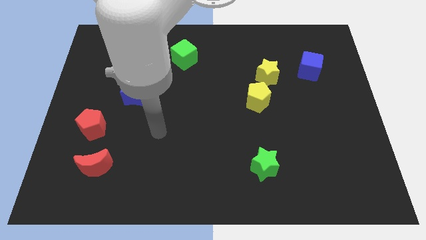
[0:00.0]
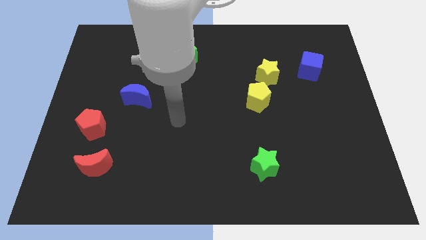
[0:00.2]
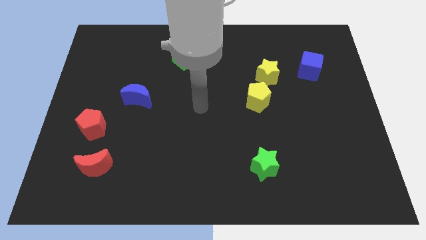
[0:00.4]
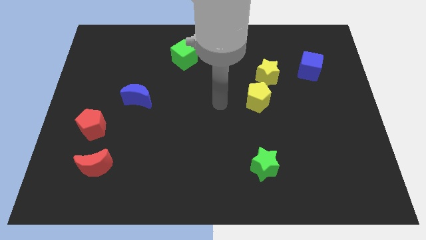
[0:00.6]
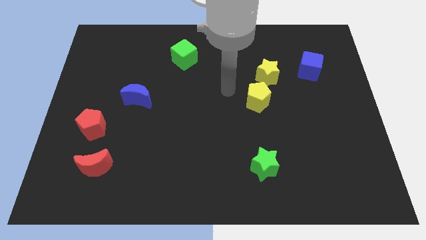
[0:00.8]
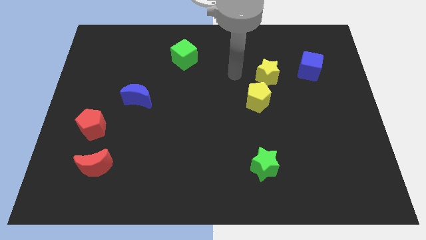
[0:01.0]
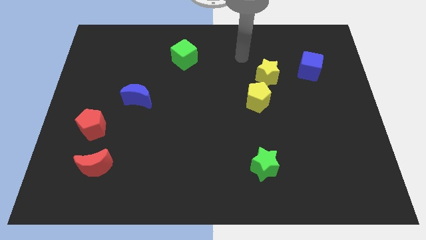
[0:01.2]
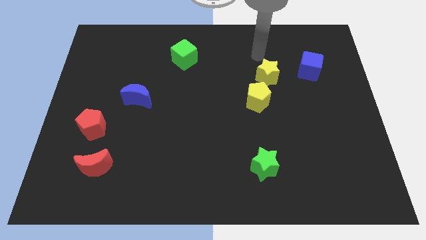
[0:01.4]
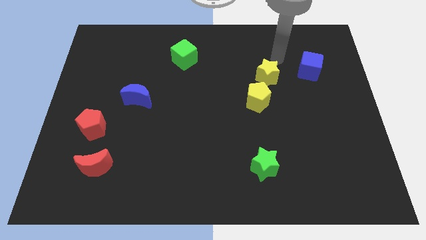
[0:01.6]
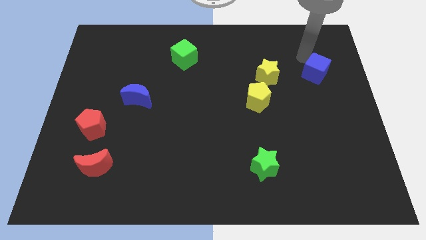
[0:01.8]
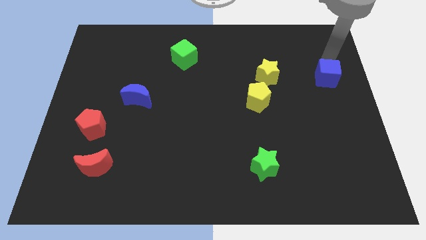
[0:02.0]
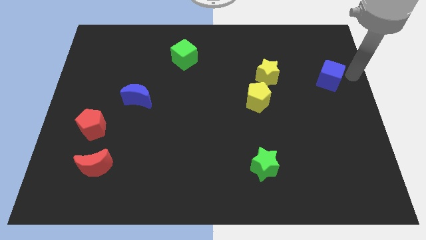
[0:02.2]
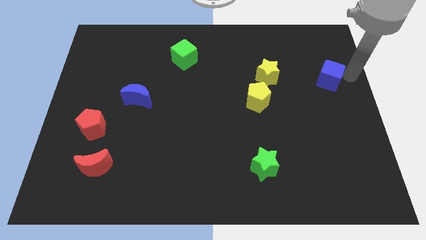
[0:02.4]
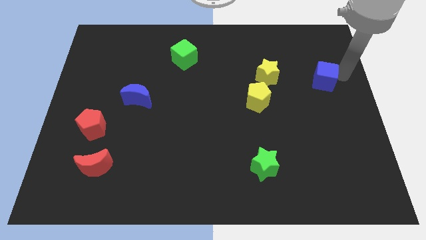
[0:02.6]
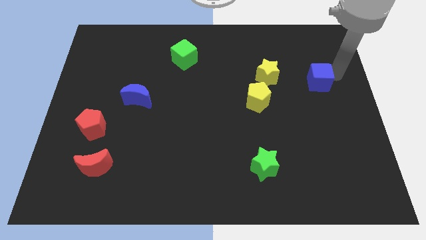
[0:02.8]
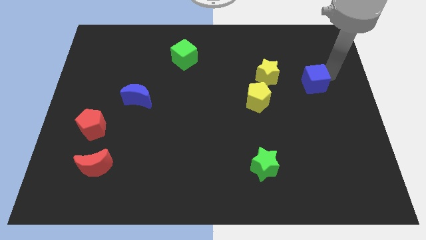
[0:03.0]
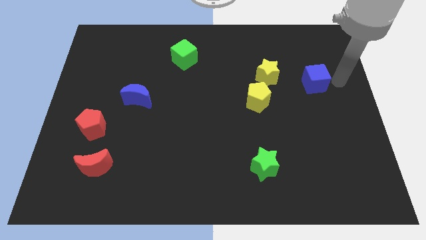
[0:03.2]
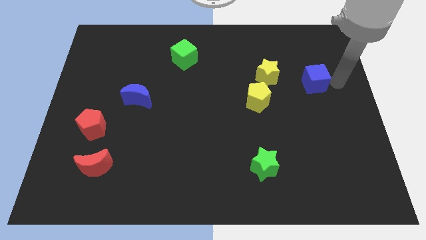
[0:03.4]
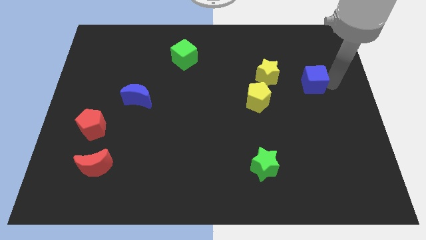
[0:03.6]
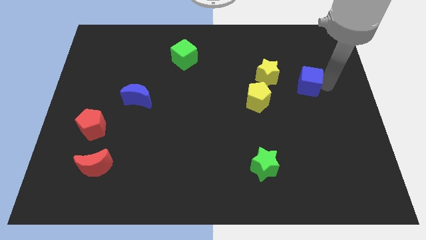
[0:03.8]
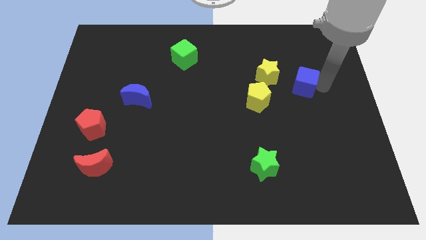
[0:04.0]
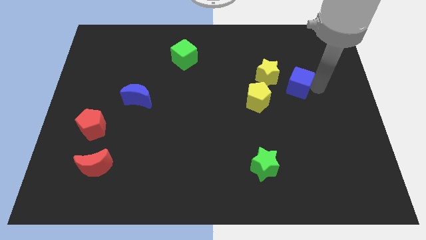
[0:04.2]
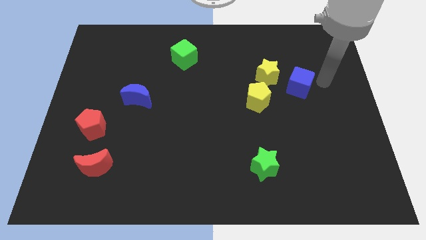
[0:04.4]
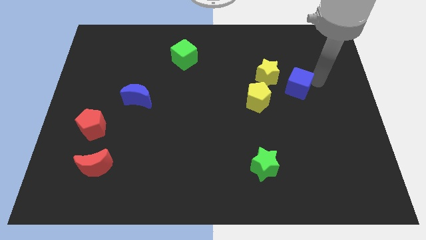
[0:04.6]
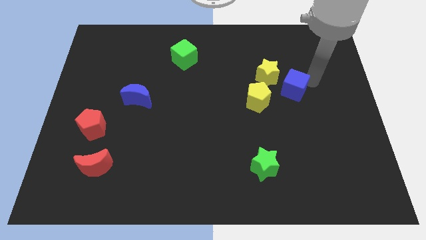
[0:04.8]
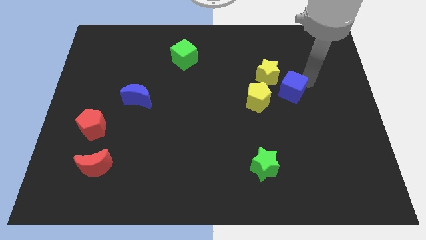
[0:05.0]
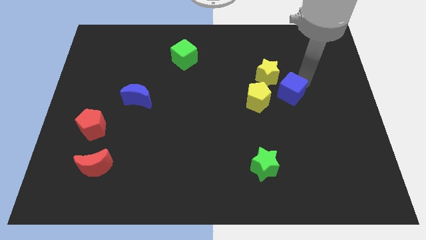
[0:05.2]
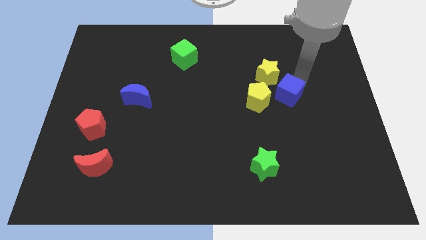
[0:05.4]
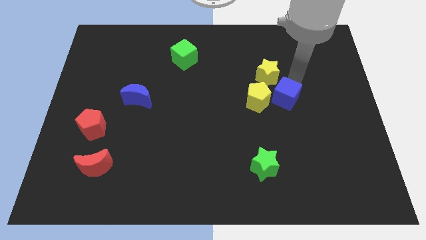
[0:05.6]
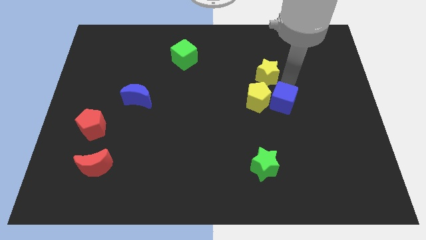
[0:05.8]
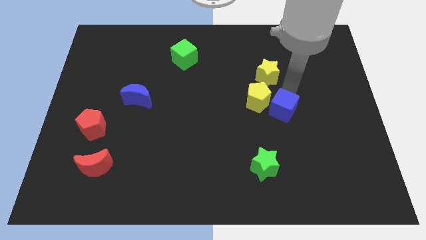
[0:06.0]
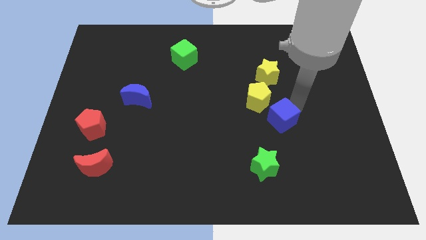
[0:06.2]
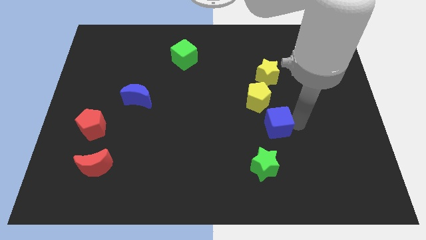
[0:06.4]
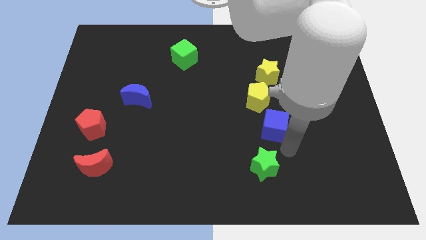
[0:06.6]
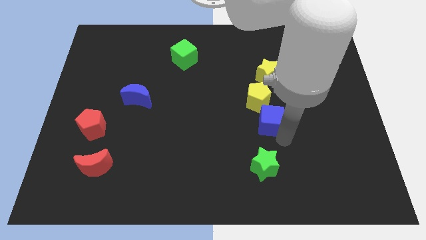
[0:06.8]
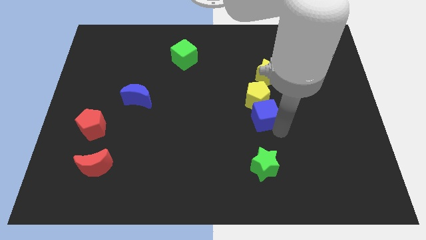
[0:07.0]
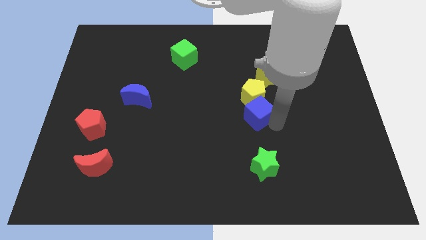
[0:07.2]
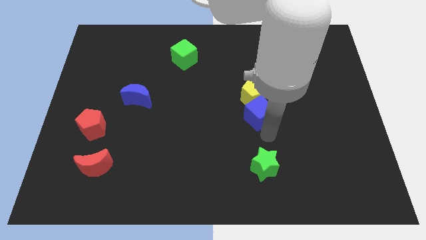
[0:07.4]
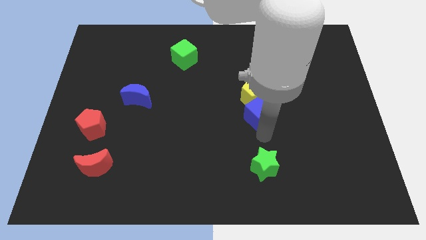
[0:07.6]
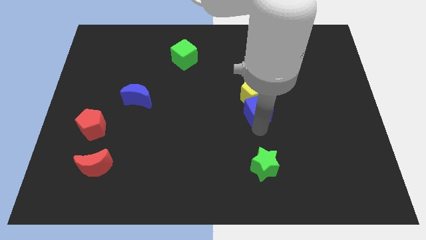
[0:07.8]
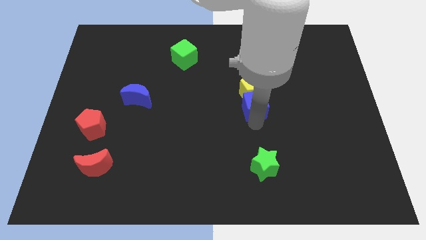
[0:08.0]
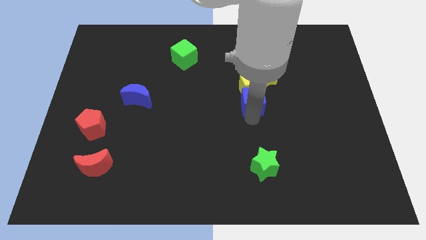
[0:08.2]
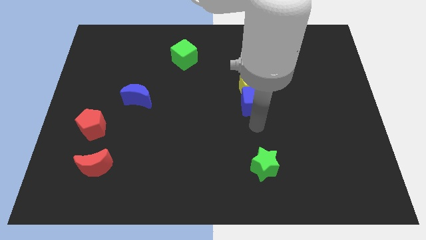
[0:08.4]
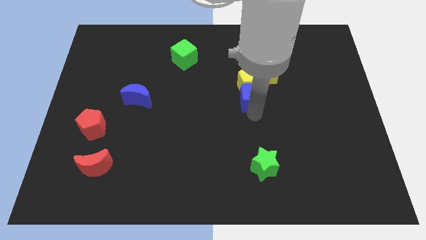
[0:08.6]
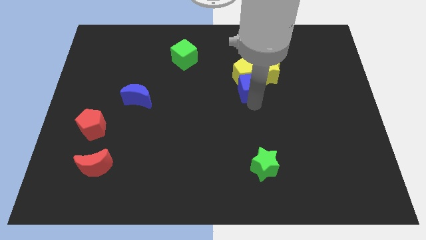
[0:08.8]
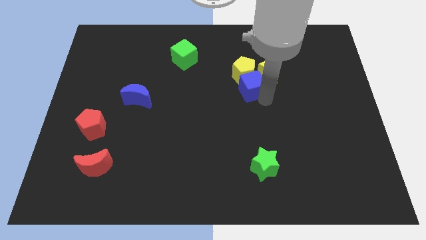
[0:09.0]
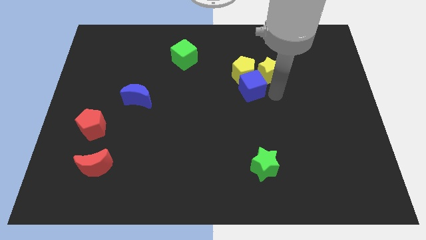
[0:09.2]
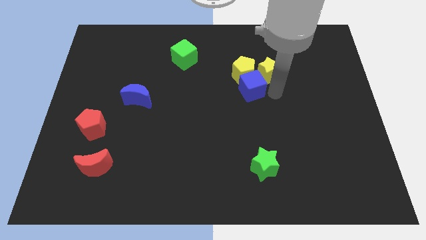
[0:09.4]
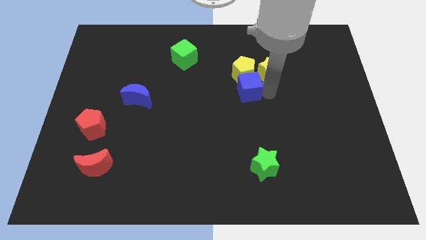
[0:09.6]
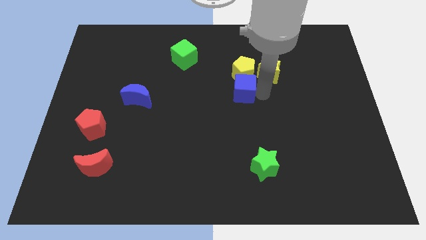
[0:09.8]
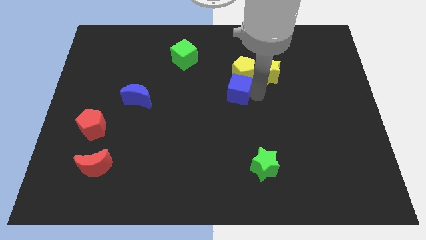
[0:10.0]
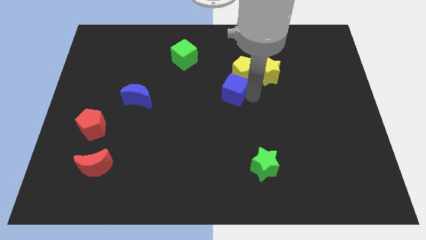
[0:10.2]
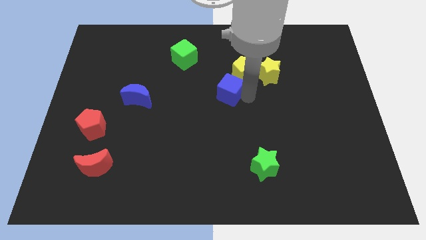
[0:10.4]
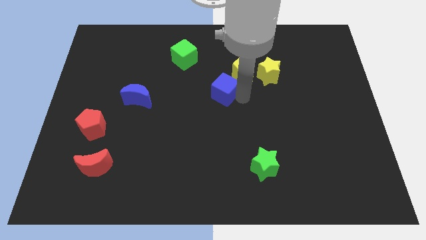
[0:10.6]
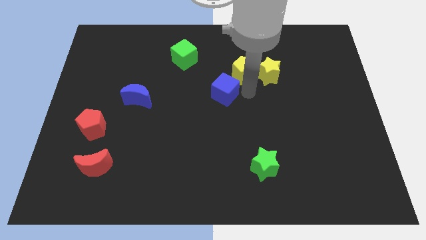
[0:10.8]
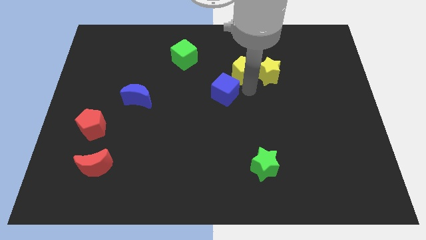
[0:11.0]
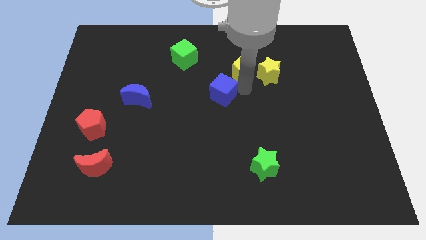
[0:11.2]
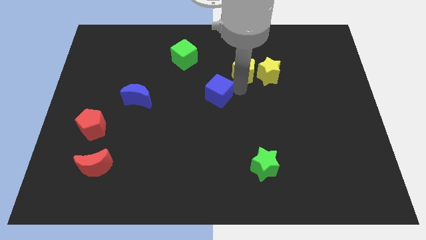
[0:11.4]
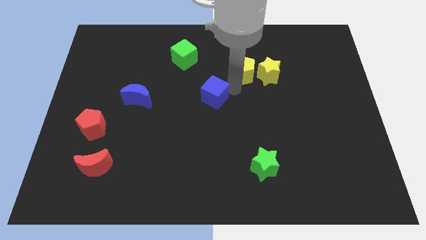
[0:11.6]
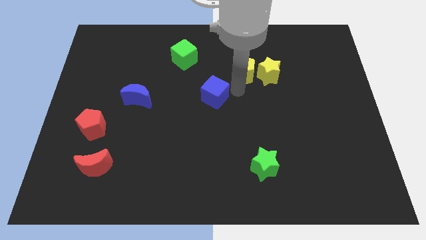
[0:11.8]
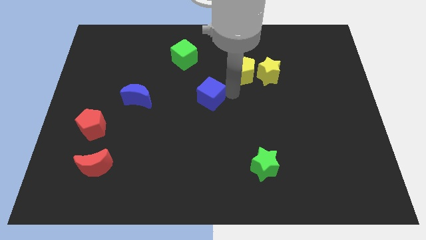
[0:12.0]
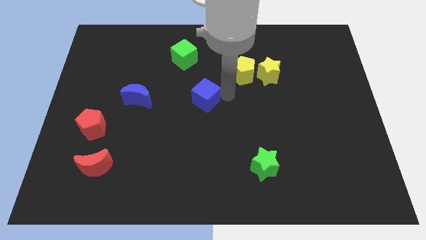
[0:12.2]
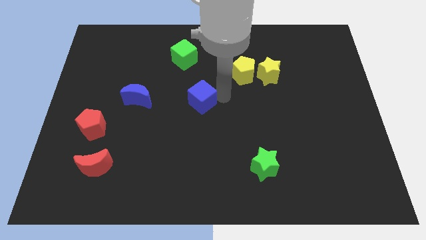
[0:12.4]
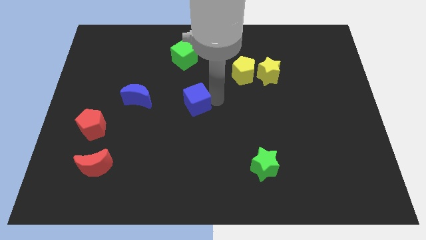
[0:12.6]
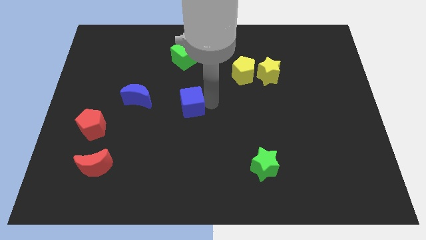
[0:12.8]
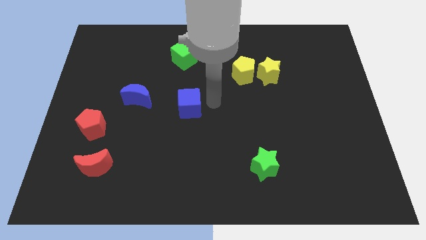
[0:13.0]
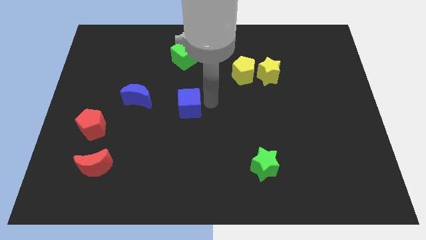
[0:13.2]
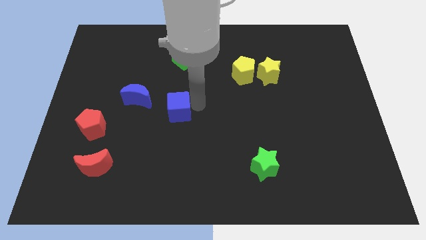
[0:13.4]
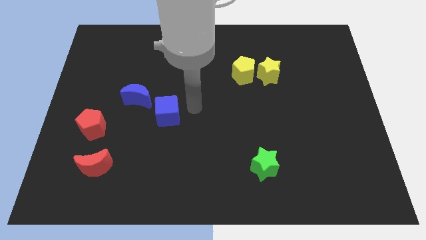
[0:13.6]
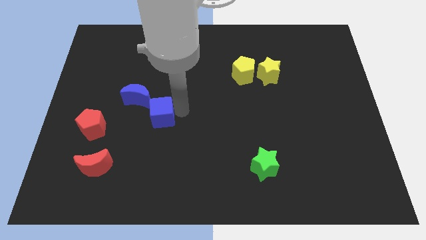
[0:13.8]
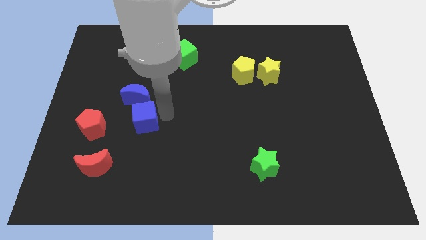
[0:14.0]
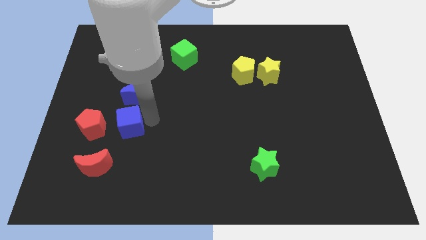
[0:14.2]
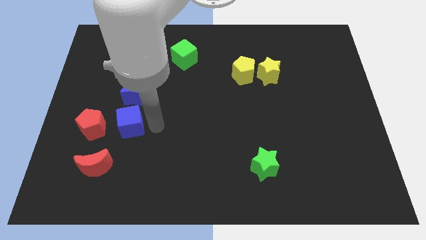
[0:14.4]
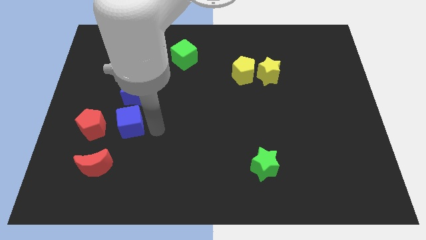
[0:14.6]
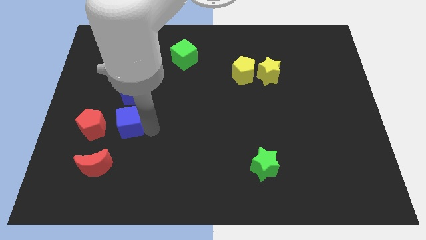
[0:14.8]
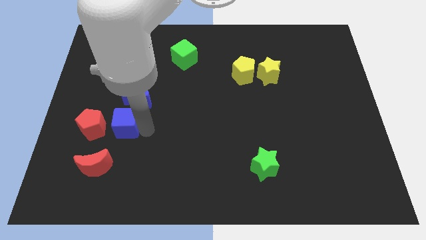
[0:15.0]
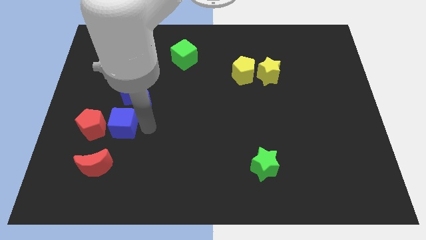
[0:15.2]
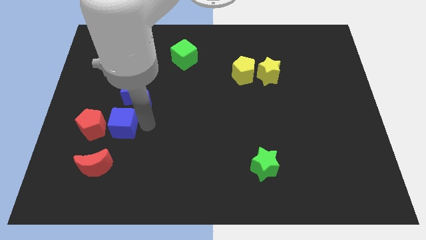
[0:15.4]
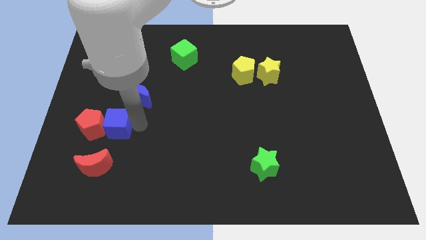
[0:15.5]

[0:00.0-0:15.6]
move the blue cube towards the red pentagon

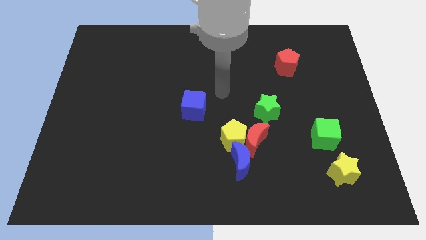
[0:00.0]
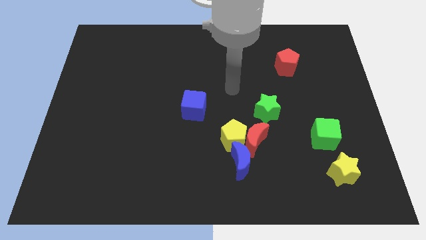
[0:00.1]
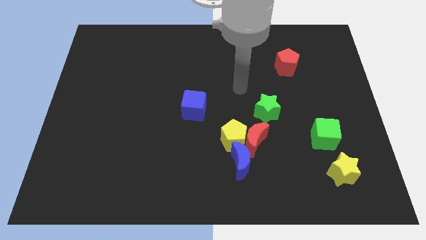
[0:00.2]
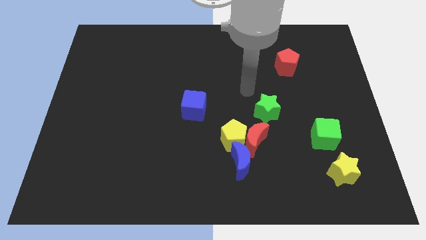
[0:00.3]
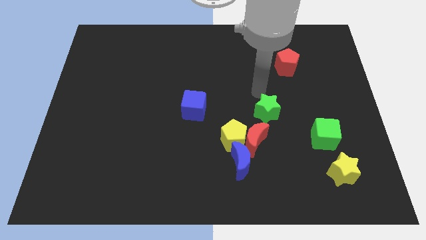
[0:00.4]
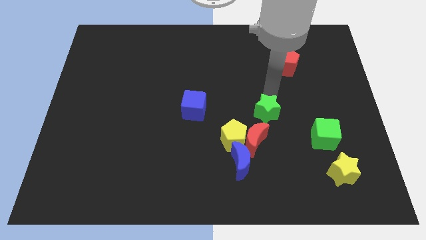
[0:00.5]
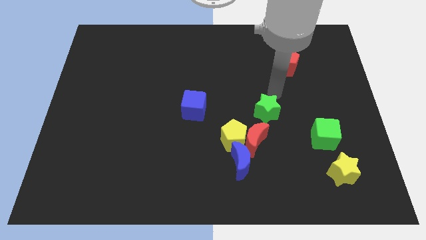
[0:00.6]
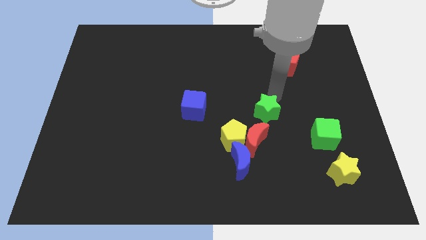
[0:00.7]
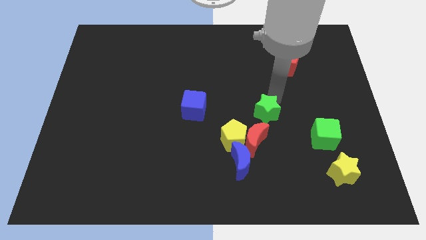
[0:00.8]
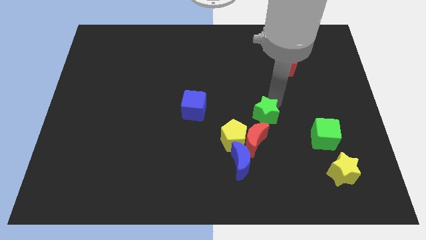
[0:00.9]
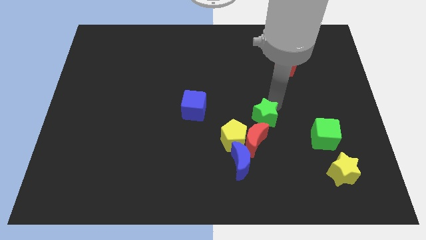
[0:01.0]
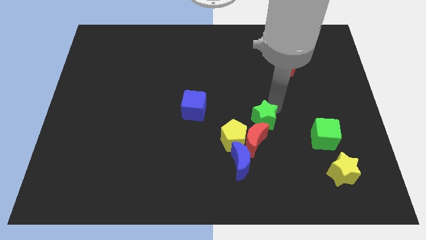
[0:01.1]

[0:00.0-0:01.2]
push the green star close to the red moon
